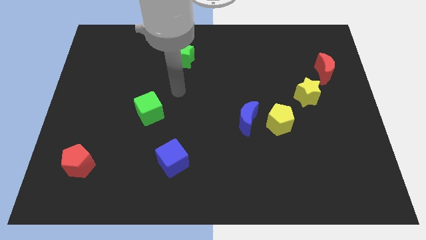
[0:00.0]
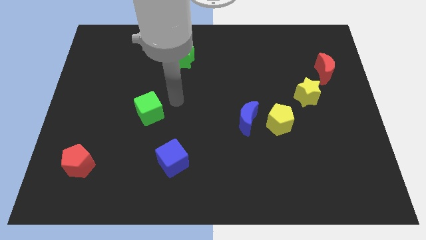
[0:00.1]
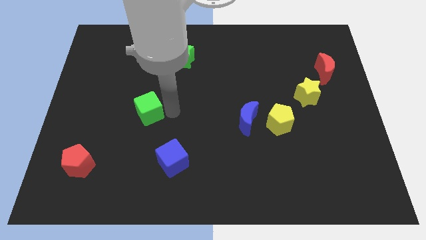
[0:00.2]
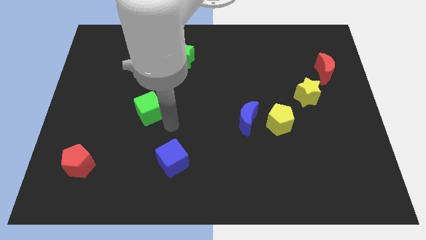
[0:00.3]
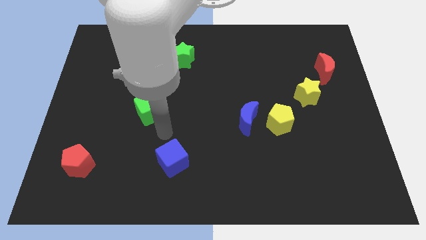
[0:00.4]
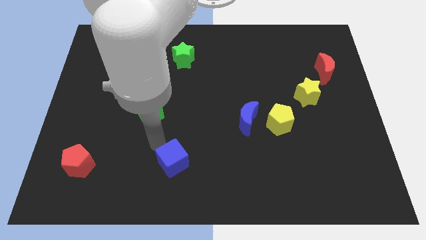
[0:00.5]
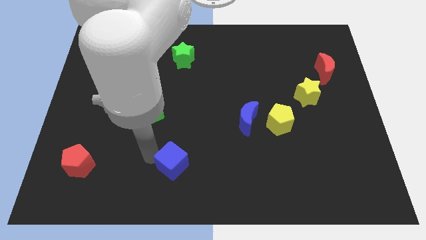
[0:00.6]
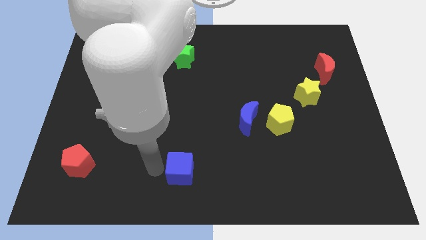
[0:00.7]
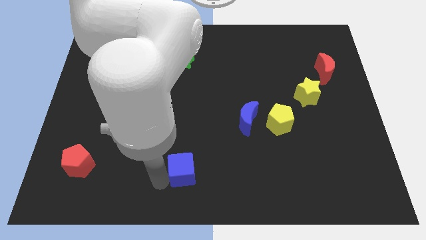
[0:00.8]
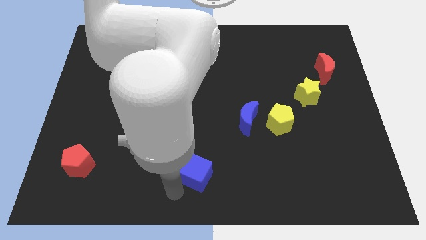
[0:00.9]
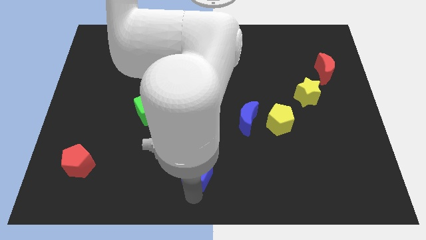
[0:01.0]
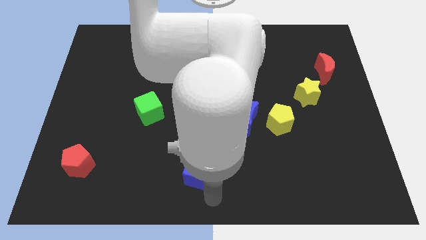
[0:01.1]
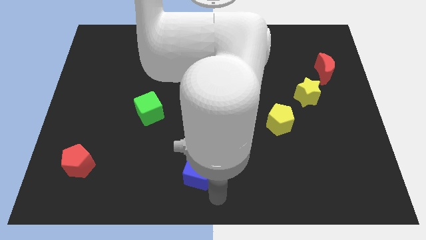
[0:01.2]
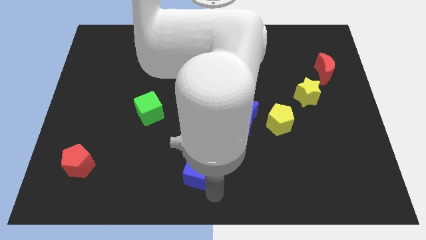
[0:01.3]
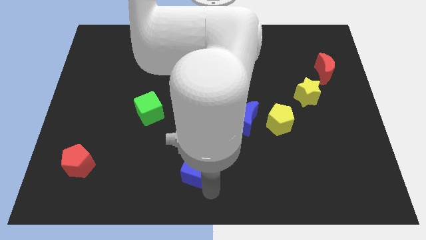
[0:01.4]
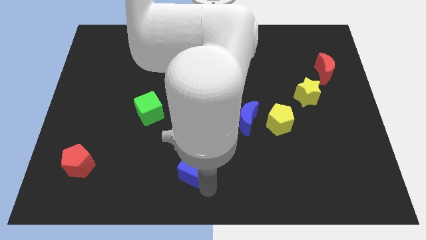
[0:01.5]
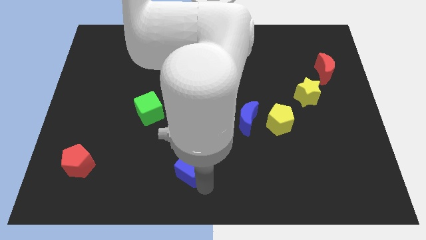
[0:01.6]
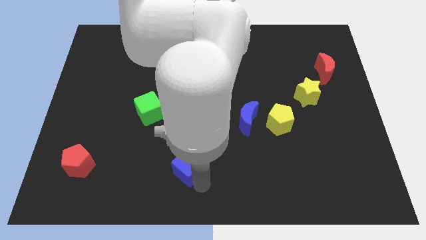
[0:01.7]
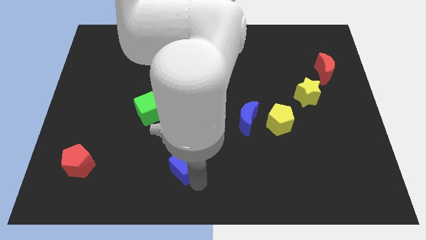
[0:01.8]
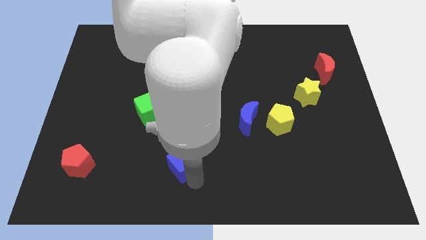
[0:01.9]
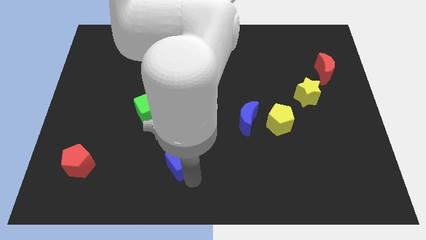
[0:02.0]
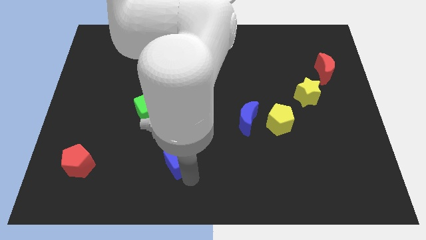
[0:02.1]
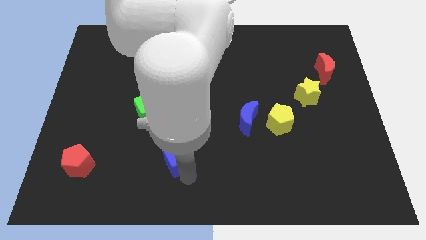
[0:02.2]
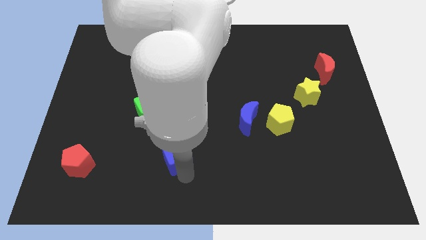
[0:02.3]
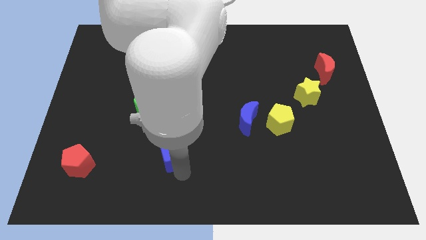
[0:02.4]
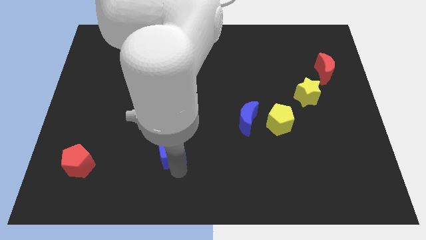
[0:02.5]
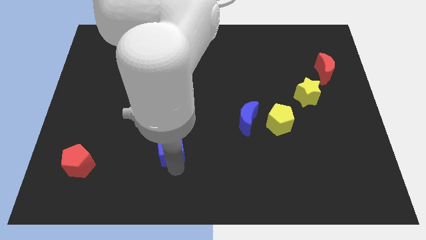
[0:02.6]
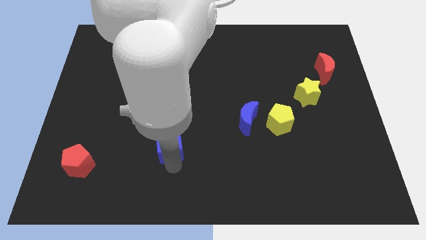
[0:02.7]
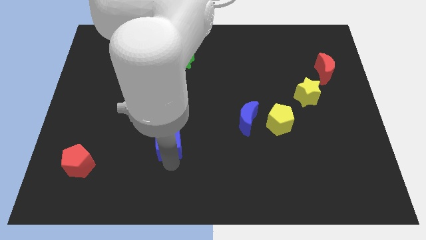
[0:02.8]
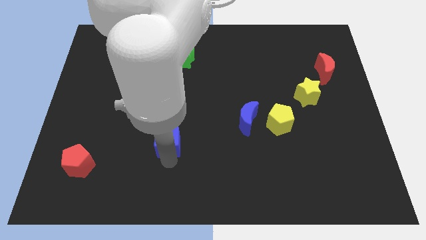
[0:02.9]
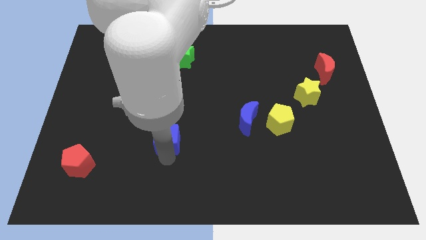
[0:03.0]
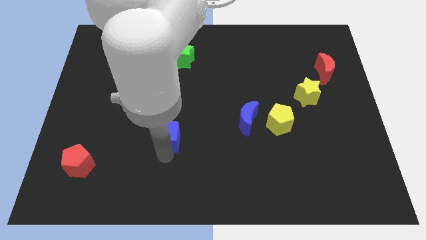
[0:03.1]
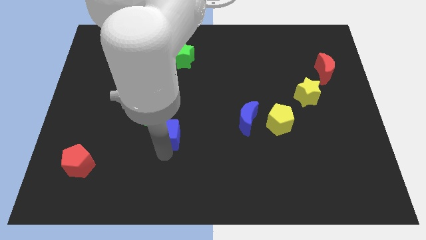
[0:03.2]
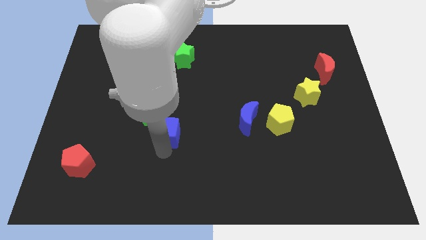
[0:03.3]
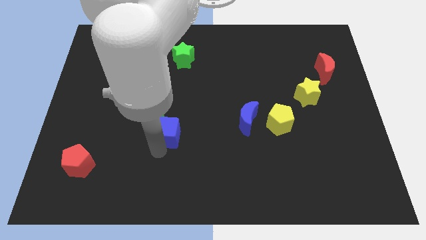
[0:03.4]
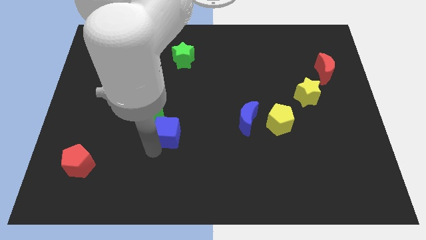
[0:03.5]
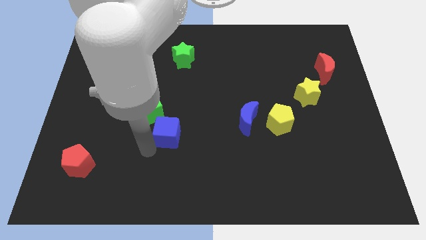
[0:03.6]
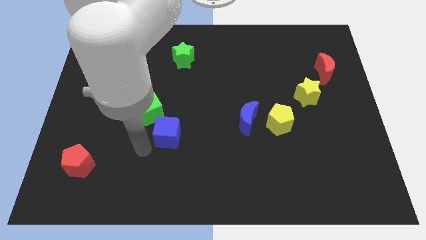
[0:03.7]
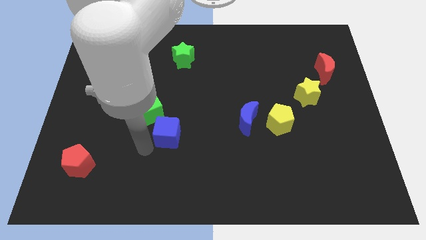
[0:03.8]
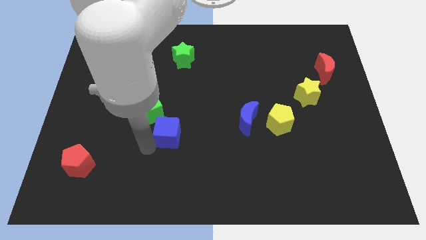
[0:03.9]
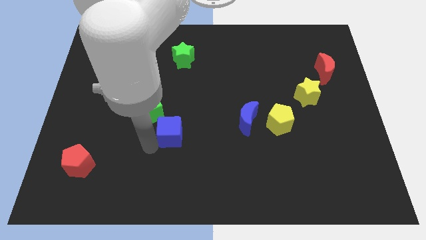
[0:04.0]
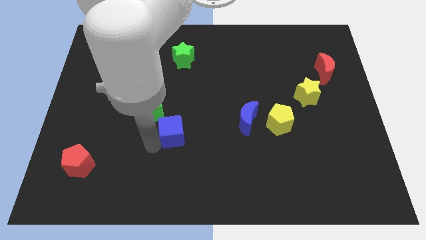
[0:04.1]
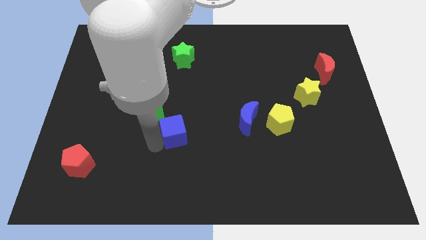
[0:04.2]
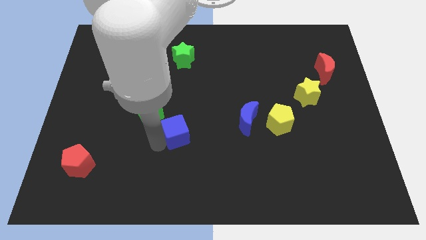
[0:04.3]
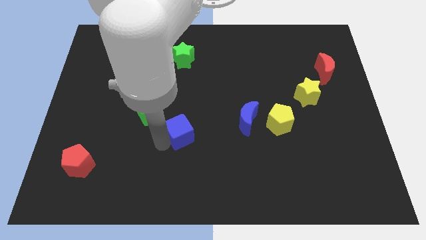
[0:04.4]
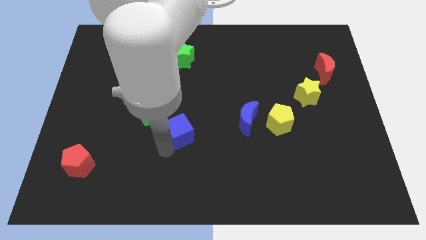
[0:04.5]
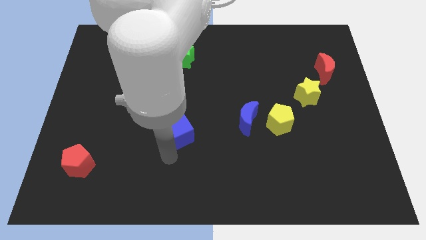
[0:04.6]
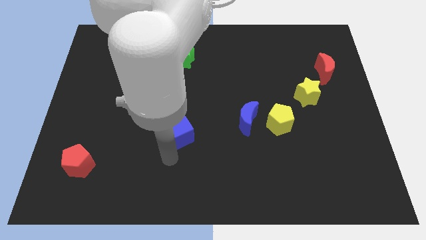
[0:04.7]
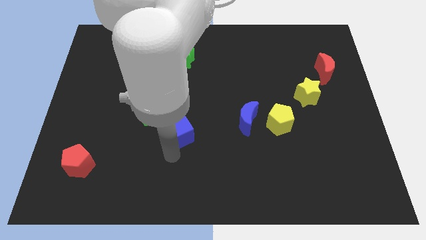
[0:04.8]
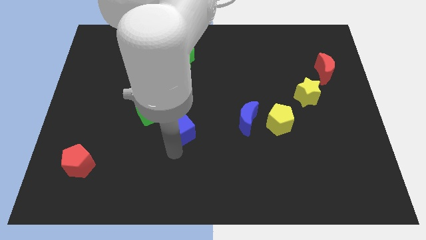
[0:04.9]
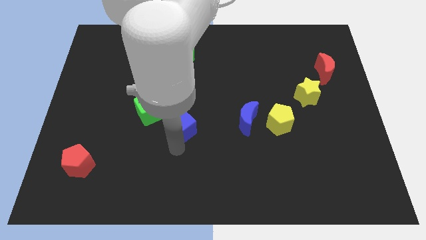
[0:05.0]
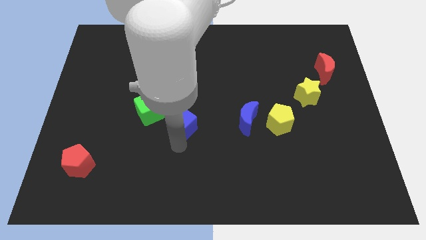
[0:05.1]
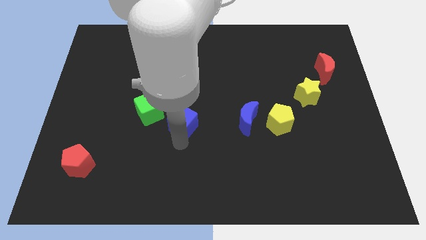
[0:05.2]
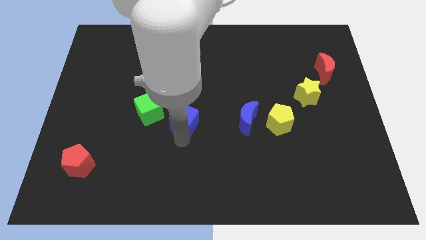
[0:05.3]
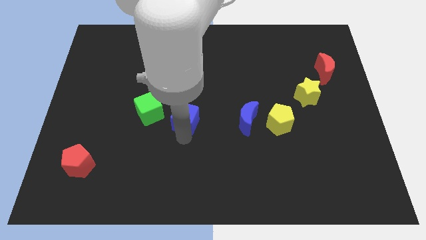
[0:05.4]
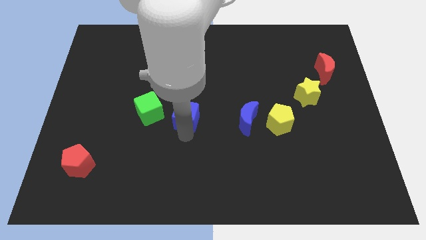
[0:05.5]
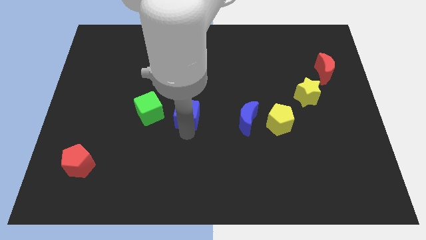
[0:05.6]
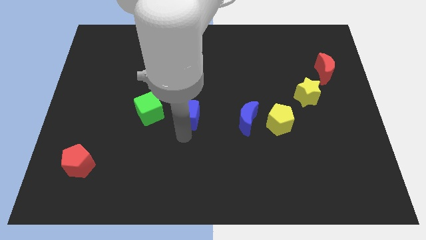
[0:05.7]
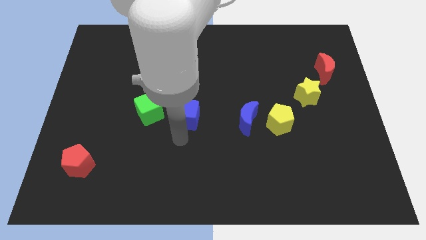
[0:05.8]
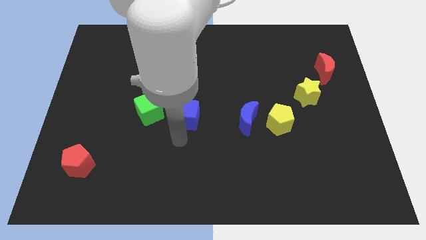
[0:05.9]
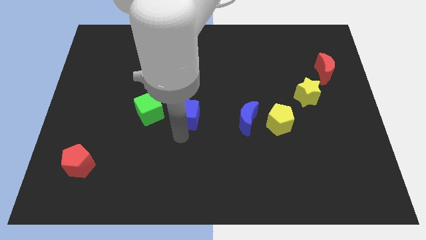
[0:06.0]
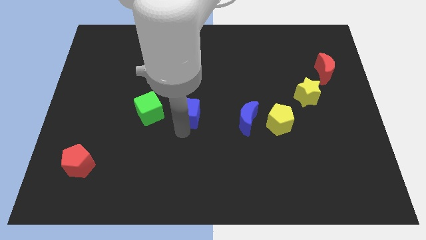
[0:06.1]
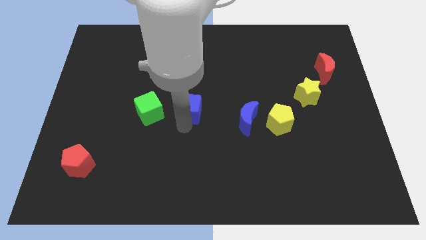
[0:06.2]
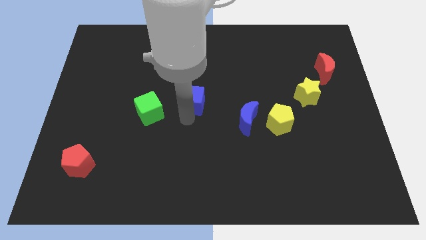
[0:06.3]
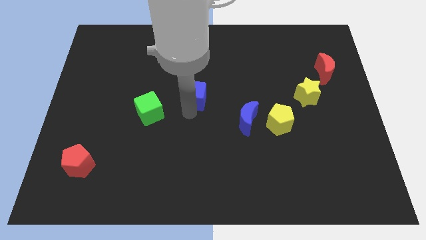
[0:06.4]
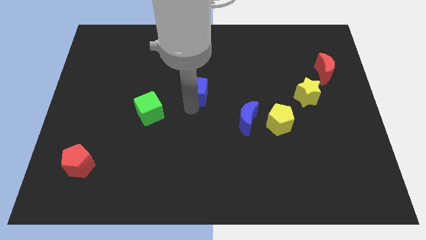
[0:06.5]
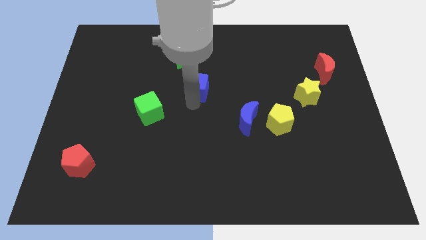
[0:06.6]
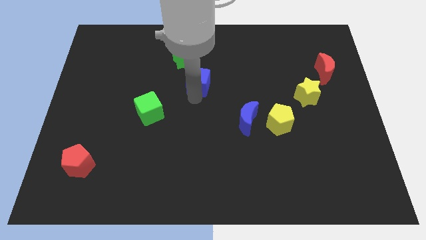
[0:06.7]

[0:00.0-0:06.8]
move the blue cube diagonally down and to the right of the green star
